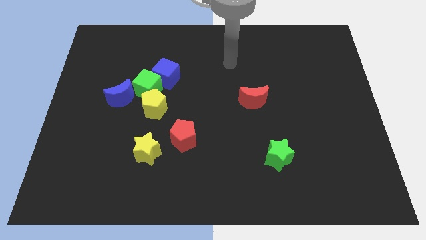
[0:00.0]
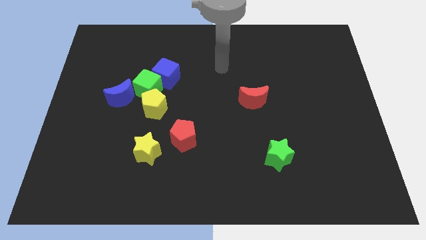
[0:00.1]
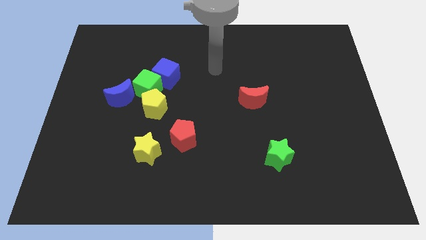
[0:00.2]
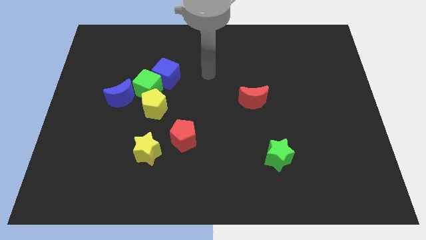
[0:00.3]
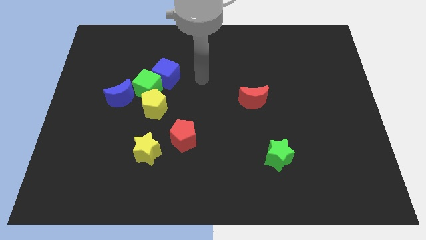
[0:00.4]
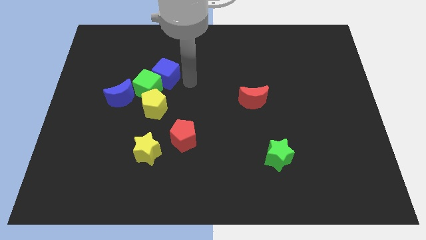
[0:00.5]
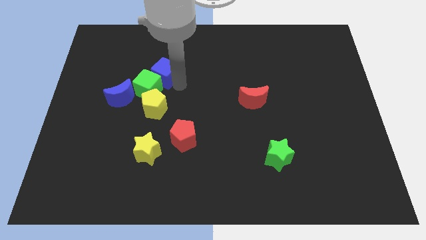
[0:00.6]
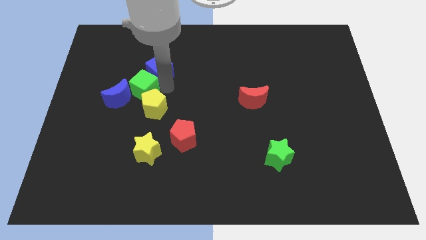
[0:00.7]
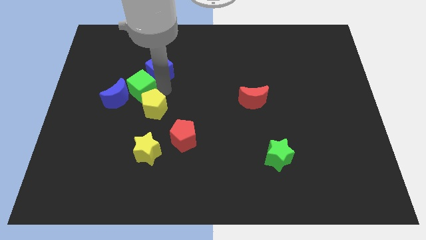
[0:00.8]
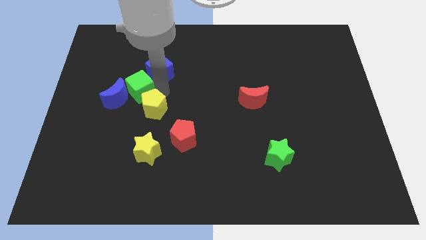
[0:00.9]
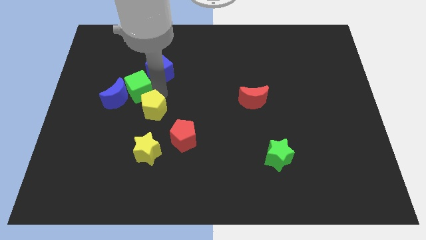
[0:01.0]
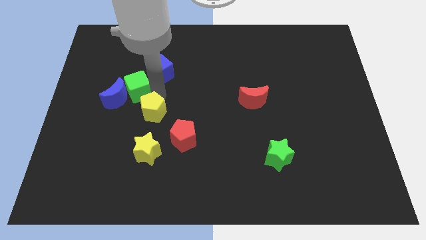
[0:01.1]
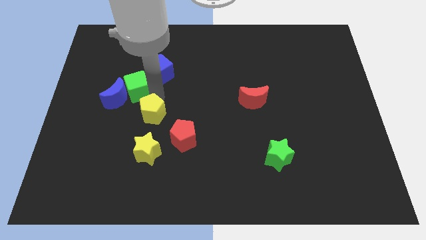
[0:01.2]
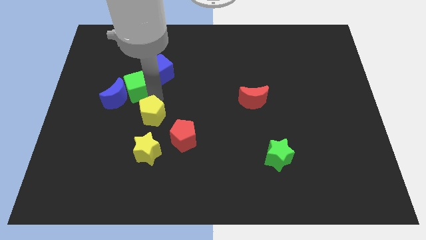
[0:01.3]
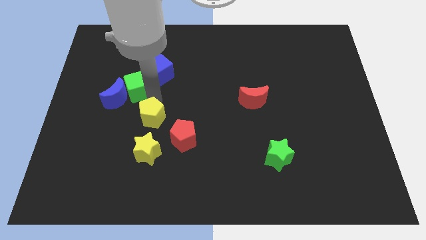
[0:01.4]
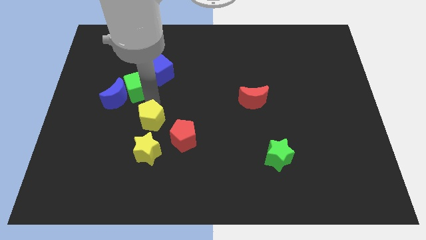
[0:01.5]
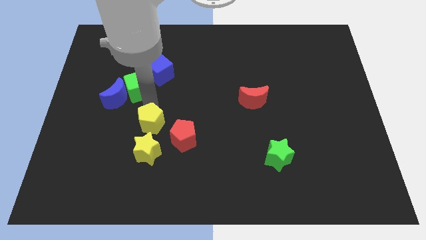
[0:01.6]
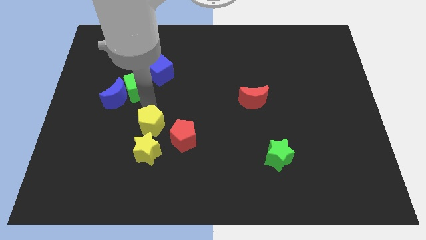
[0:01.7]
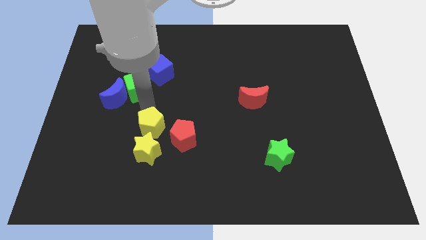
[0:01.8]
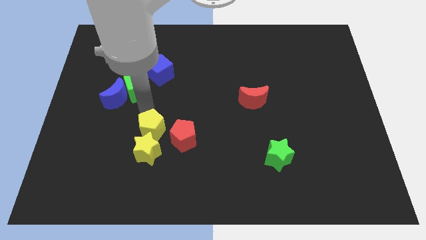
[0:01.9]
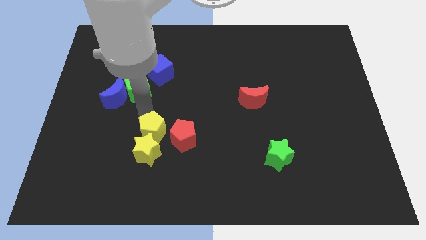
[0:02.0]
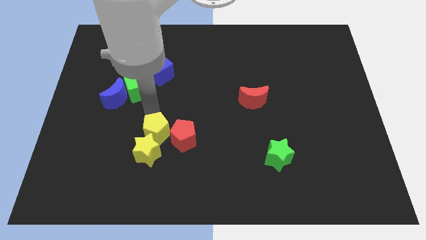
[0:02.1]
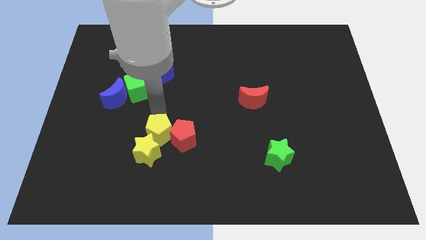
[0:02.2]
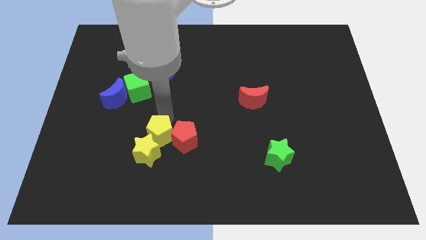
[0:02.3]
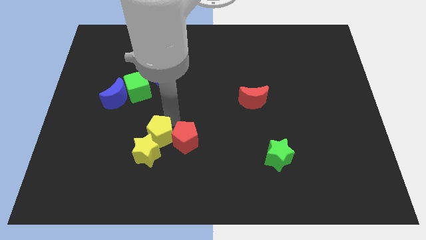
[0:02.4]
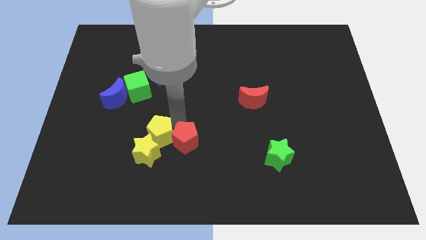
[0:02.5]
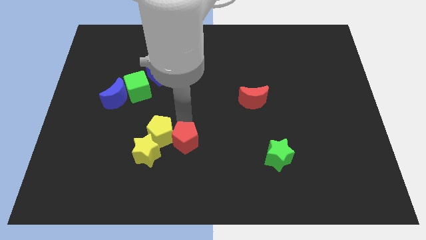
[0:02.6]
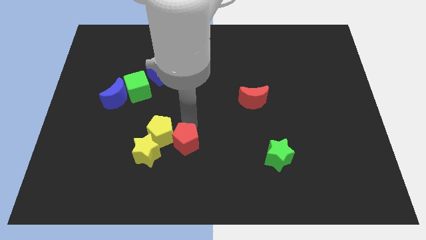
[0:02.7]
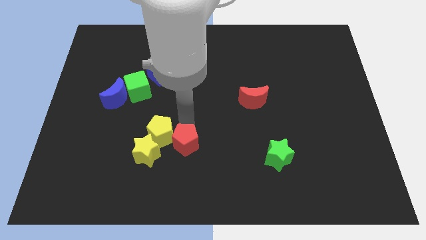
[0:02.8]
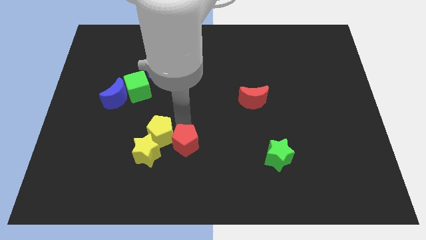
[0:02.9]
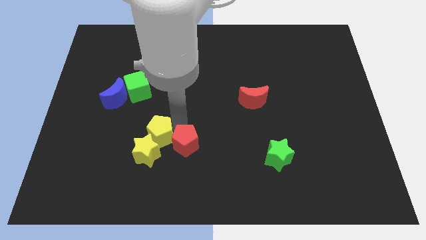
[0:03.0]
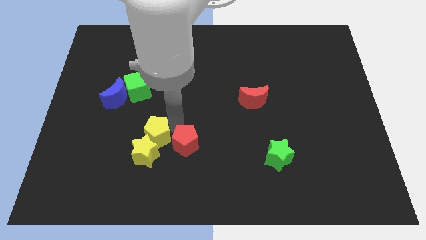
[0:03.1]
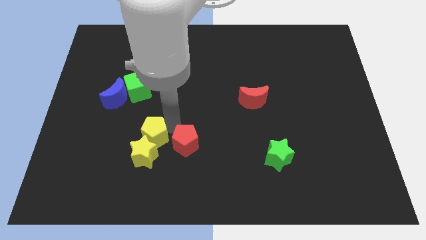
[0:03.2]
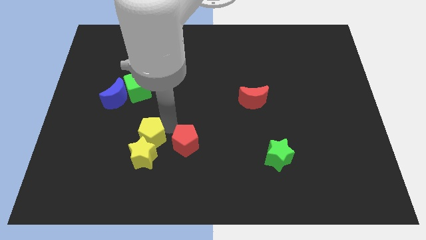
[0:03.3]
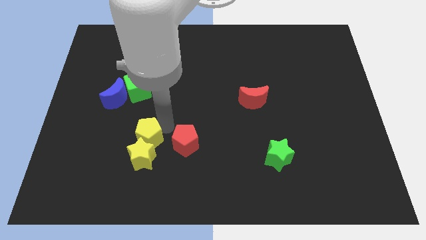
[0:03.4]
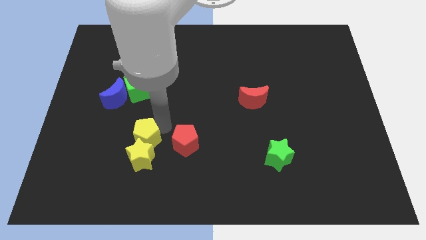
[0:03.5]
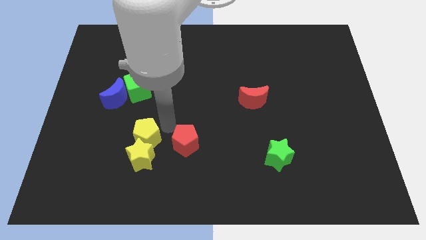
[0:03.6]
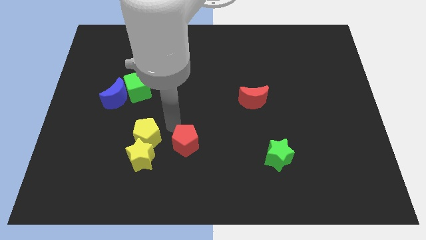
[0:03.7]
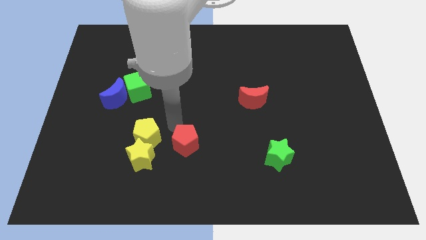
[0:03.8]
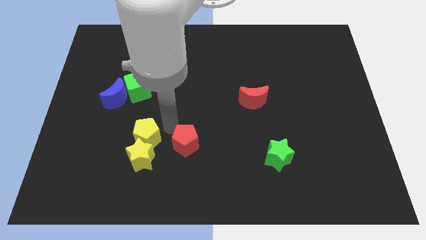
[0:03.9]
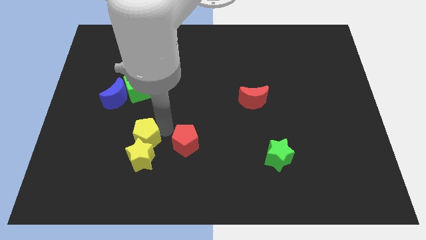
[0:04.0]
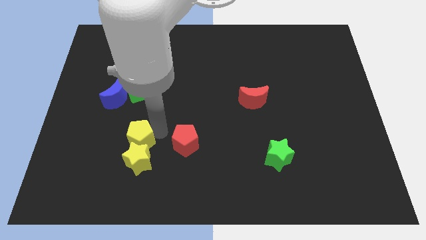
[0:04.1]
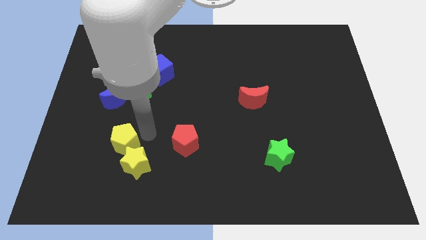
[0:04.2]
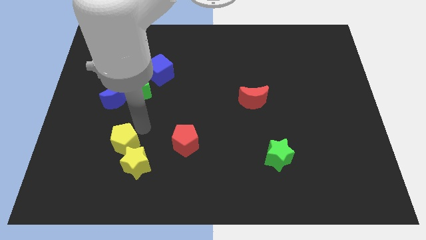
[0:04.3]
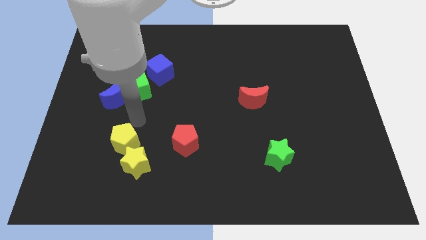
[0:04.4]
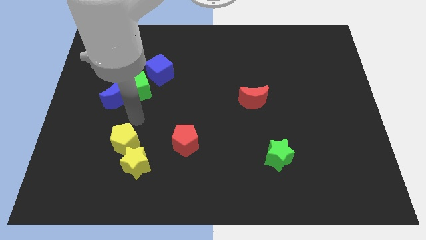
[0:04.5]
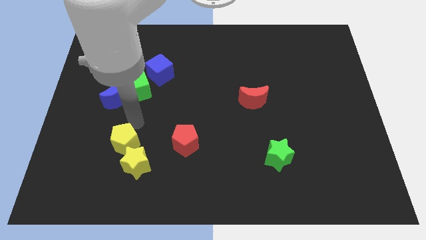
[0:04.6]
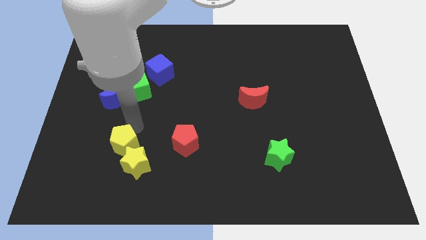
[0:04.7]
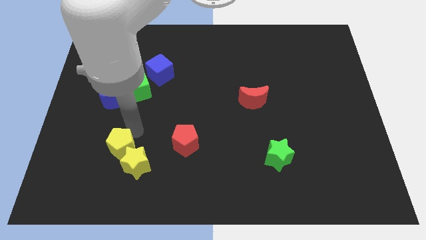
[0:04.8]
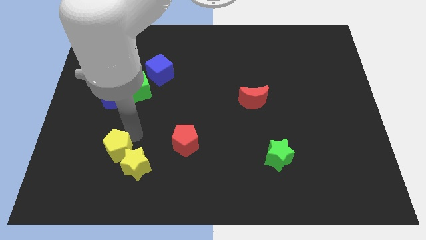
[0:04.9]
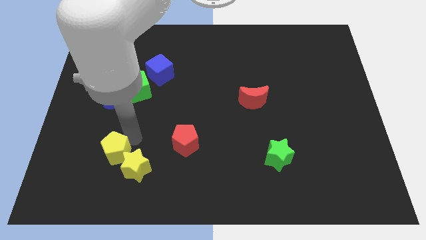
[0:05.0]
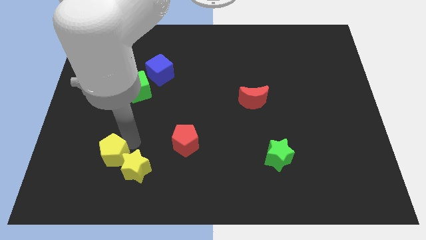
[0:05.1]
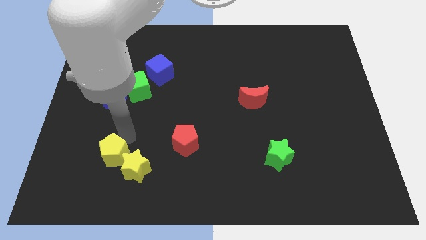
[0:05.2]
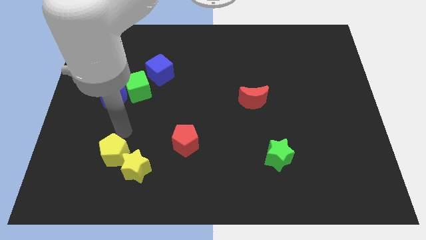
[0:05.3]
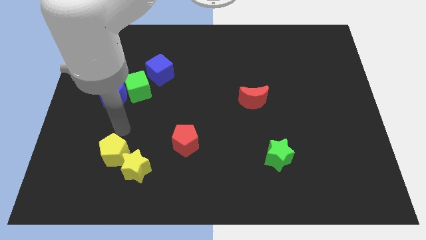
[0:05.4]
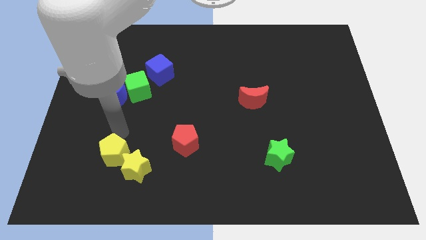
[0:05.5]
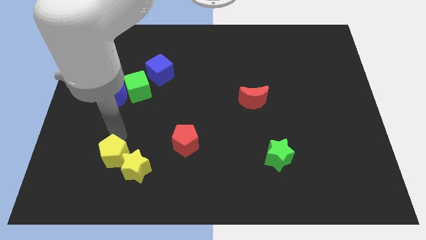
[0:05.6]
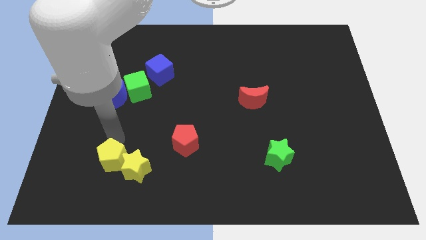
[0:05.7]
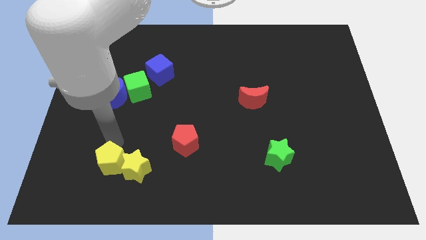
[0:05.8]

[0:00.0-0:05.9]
move the yellow pentagon to the bottom left of the yellow star

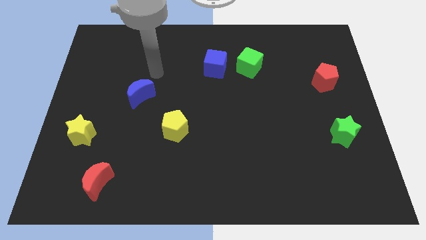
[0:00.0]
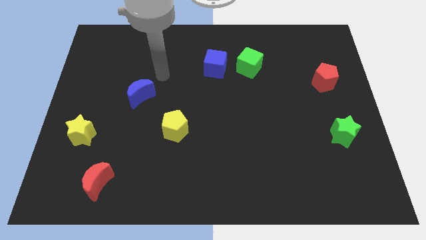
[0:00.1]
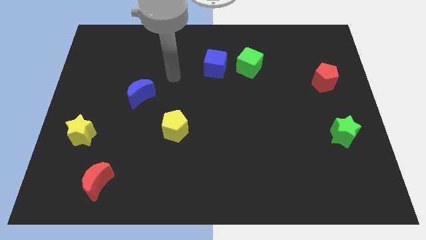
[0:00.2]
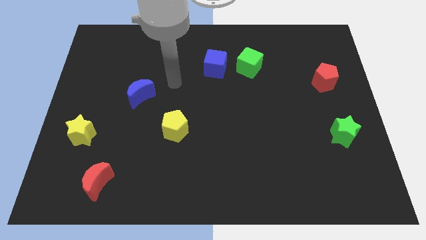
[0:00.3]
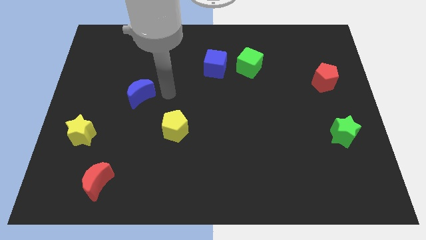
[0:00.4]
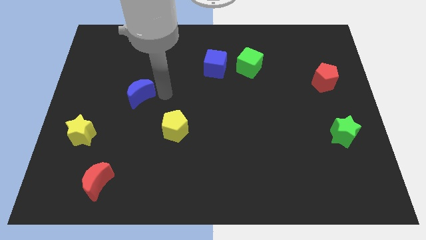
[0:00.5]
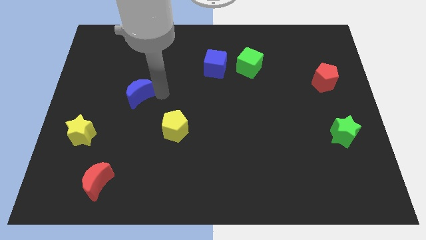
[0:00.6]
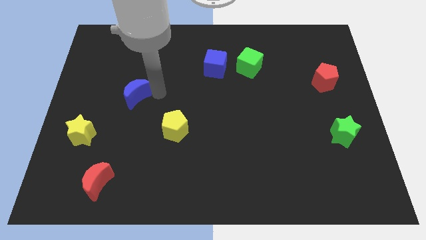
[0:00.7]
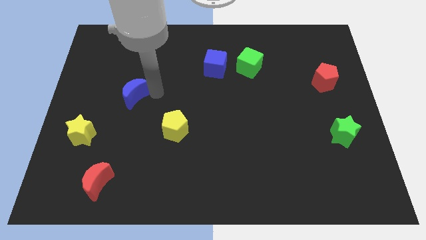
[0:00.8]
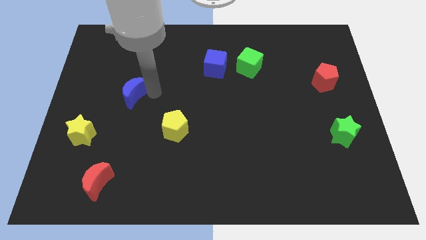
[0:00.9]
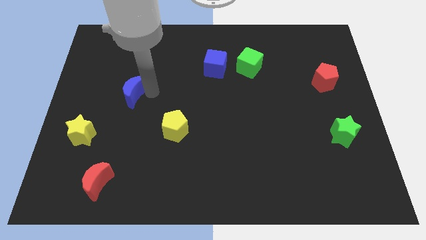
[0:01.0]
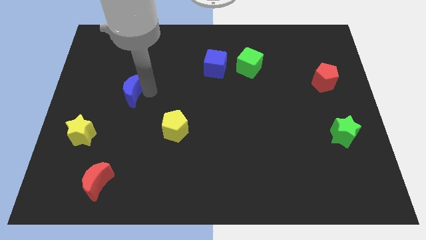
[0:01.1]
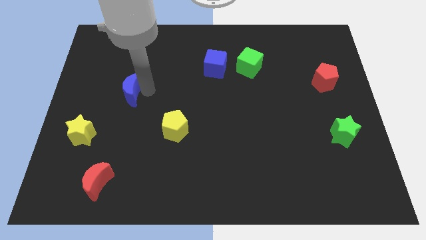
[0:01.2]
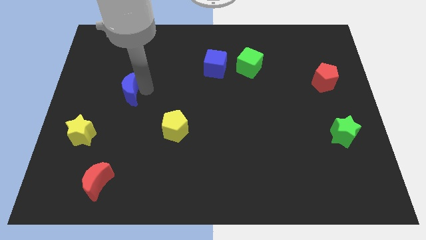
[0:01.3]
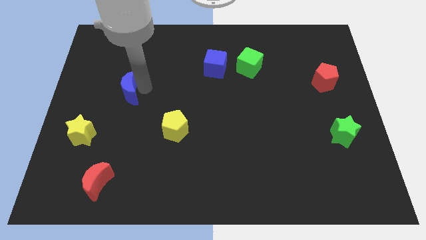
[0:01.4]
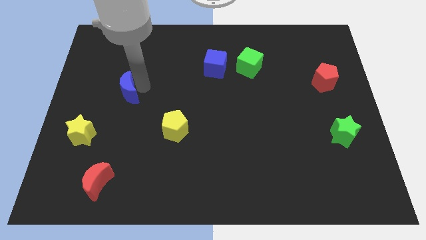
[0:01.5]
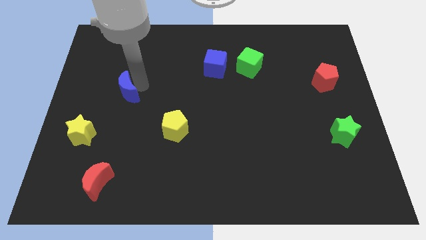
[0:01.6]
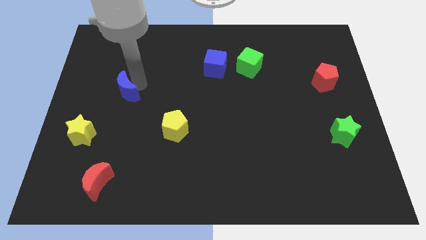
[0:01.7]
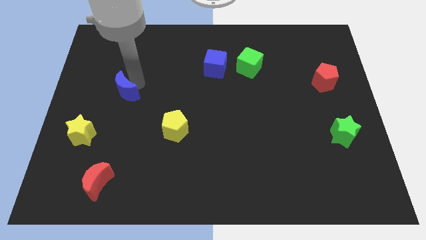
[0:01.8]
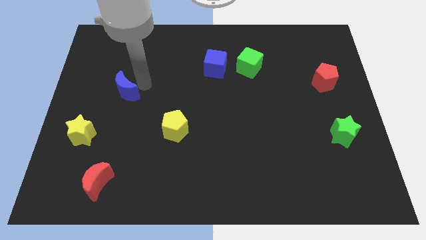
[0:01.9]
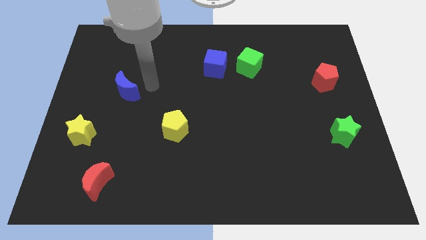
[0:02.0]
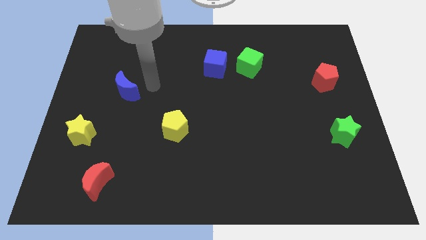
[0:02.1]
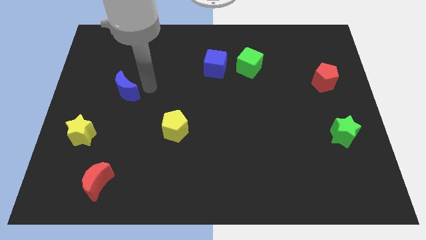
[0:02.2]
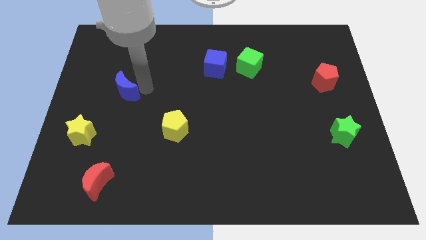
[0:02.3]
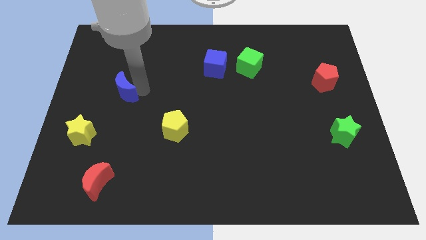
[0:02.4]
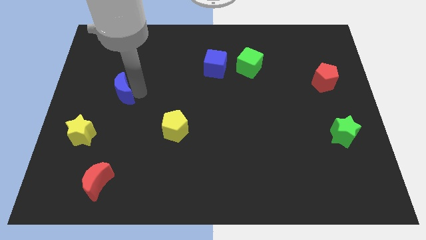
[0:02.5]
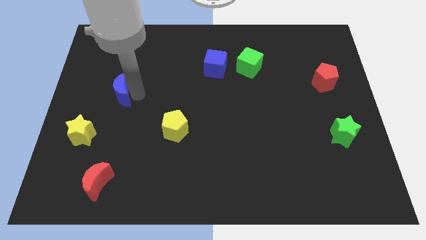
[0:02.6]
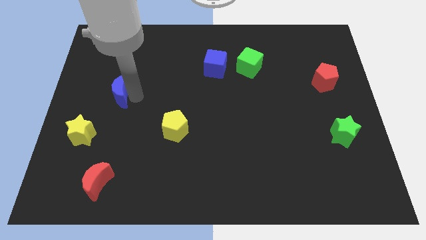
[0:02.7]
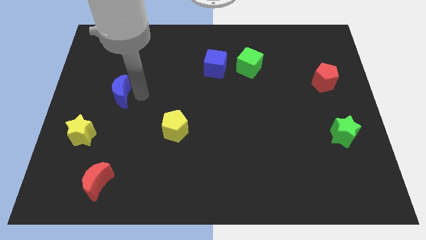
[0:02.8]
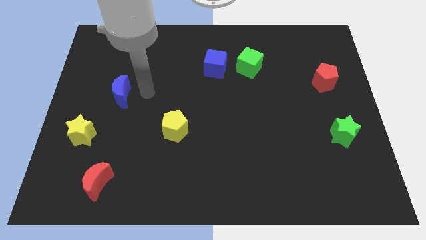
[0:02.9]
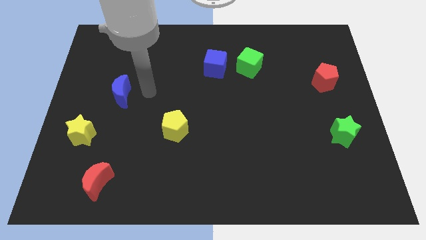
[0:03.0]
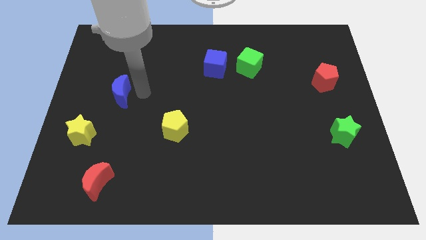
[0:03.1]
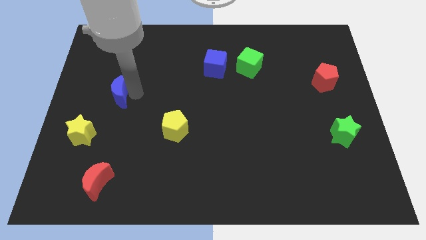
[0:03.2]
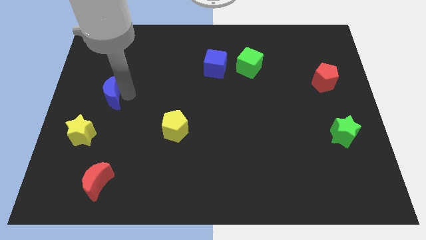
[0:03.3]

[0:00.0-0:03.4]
push the blue moon to the top of the yellow star
